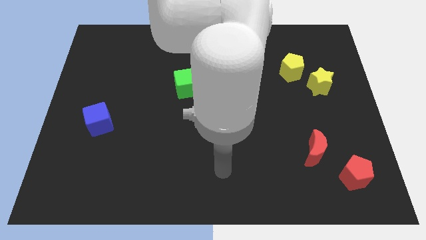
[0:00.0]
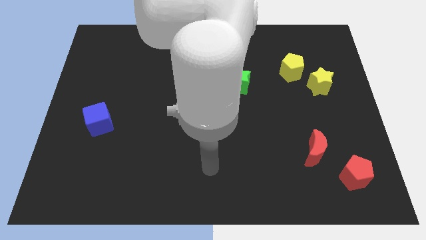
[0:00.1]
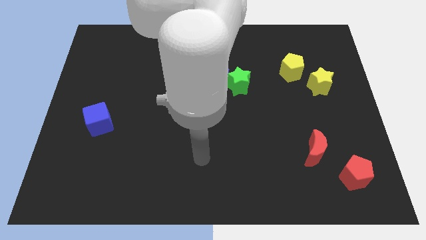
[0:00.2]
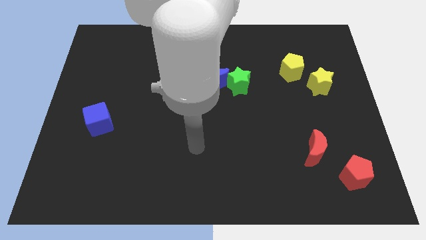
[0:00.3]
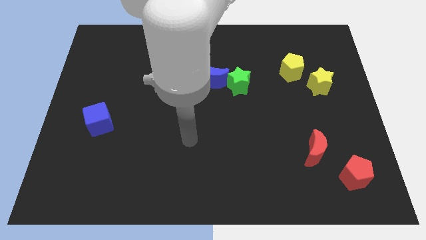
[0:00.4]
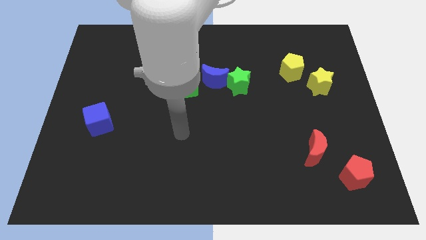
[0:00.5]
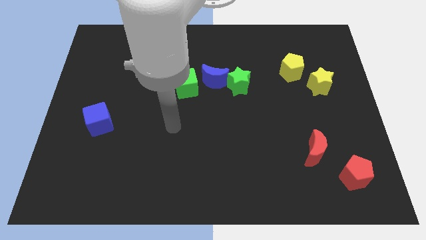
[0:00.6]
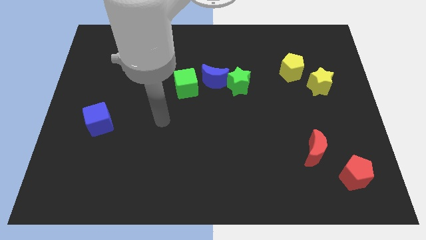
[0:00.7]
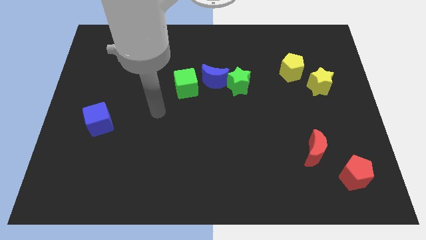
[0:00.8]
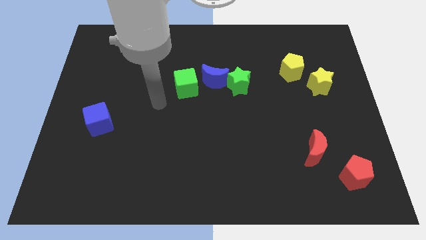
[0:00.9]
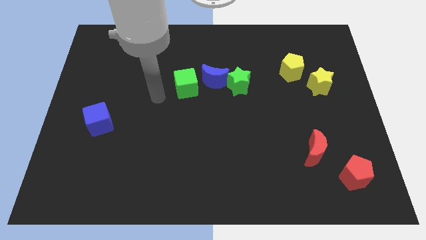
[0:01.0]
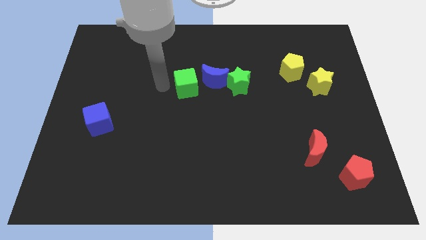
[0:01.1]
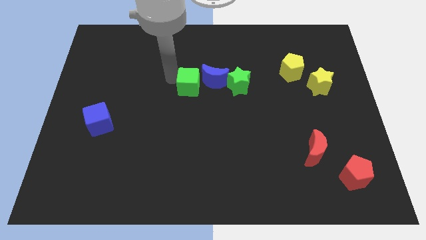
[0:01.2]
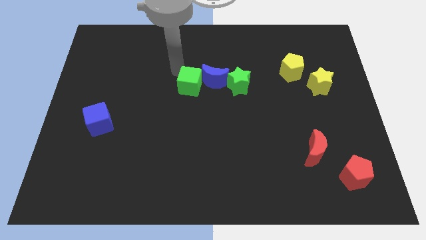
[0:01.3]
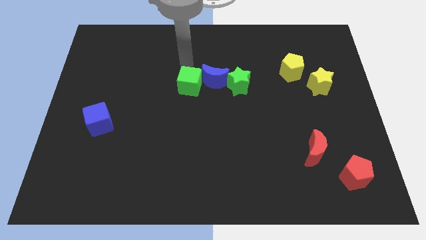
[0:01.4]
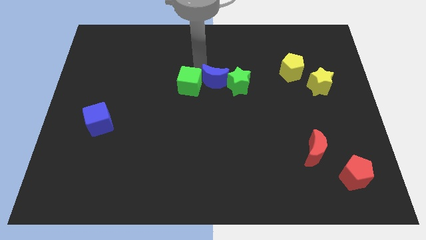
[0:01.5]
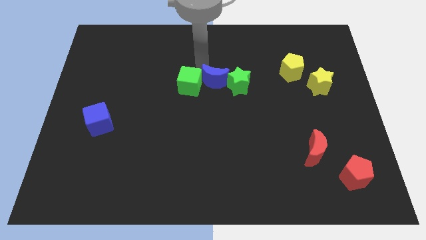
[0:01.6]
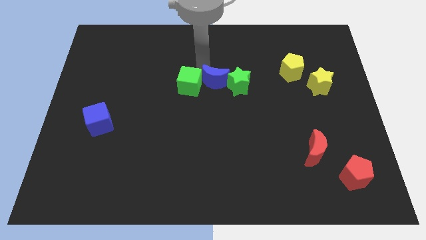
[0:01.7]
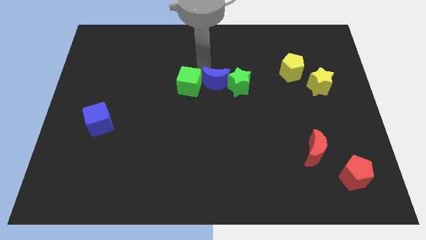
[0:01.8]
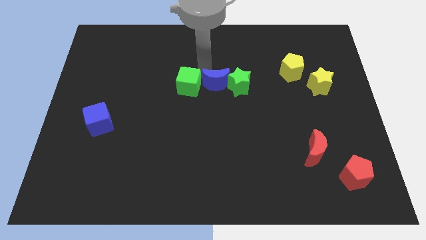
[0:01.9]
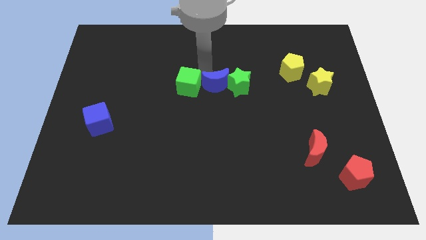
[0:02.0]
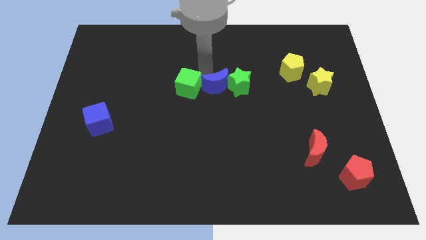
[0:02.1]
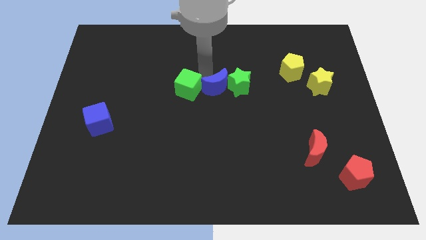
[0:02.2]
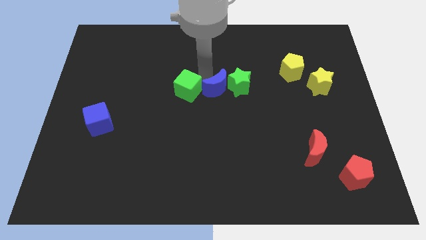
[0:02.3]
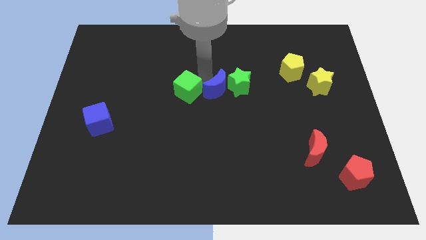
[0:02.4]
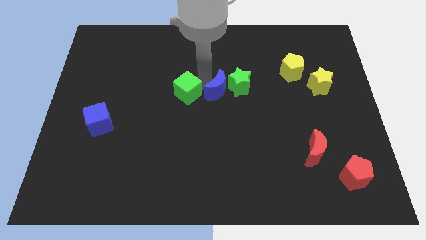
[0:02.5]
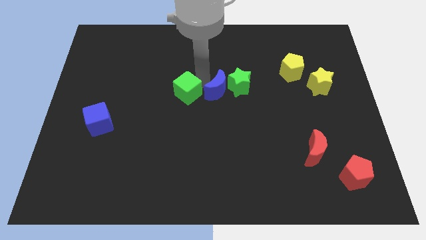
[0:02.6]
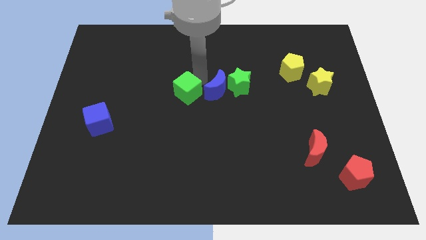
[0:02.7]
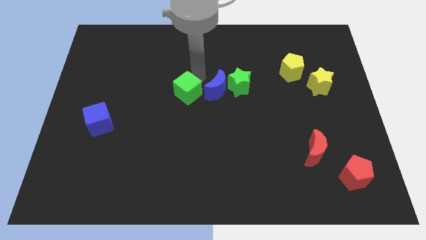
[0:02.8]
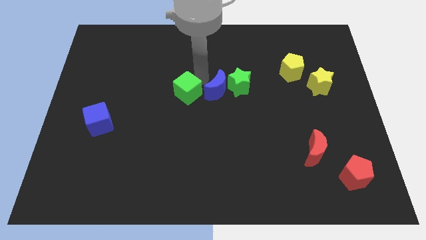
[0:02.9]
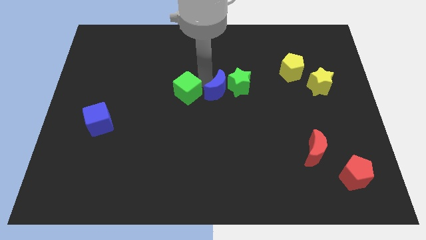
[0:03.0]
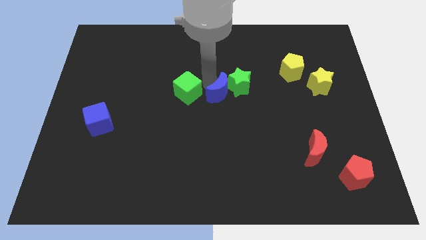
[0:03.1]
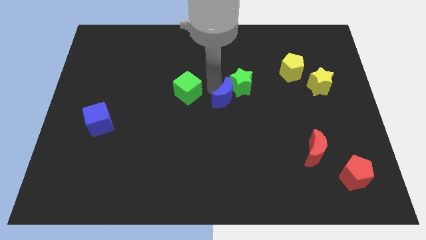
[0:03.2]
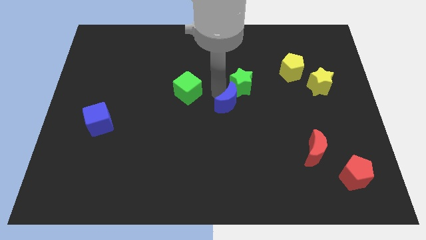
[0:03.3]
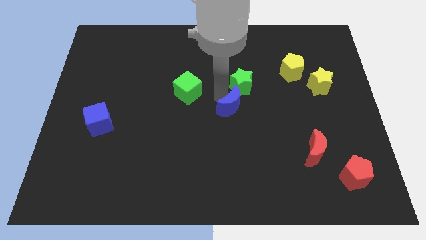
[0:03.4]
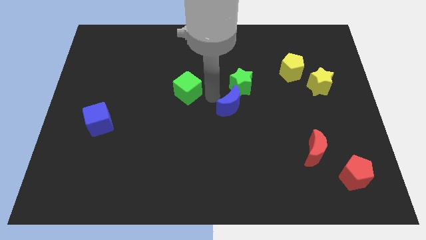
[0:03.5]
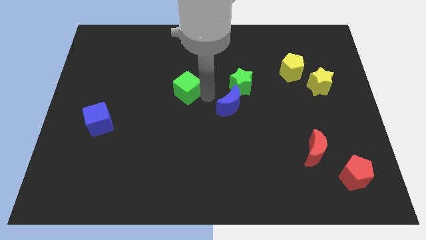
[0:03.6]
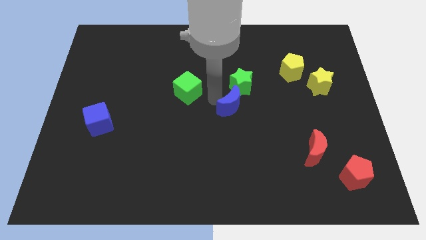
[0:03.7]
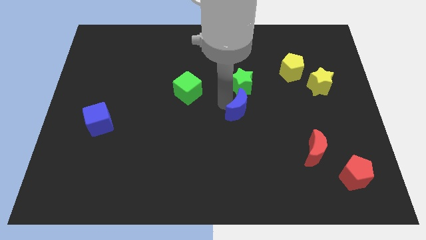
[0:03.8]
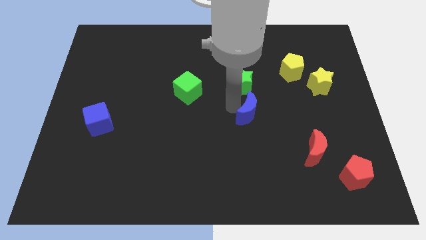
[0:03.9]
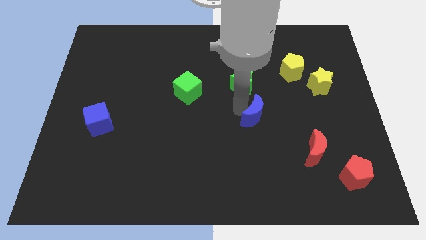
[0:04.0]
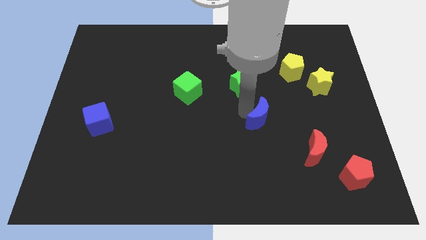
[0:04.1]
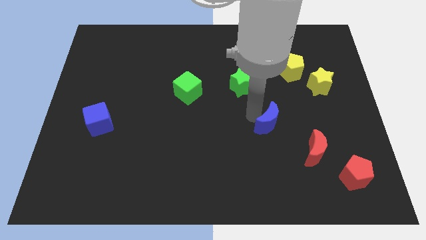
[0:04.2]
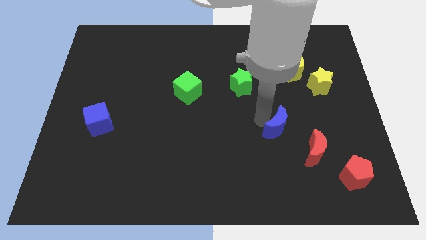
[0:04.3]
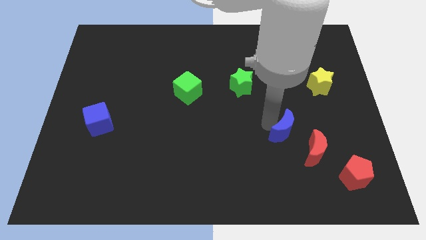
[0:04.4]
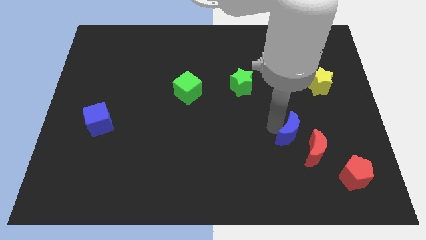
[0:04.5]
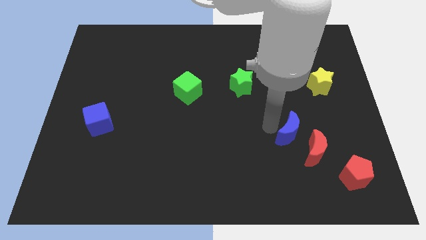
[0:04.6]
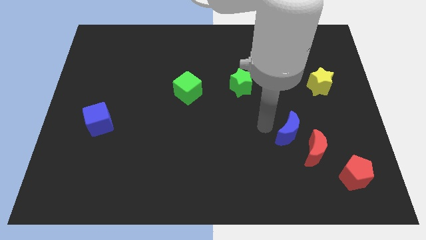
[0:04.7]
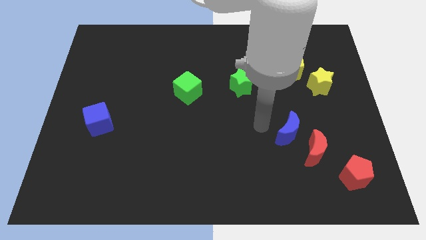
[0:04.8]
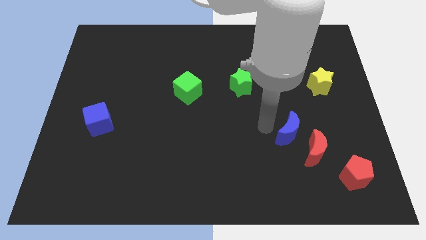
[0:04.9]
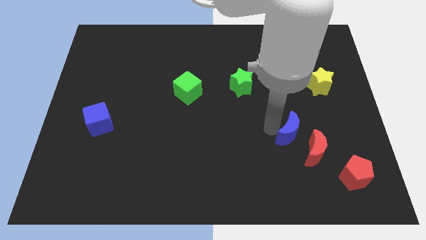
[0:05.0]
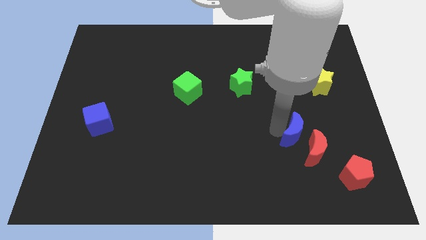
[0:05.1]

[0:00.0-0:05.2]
push the blue moon next to the red moon

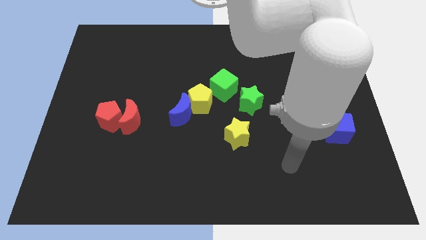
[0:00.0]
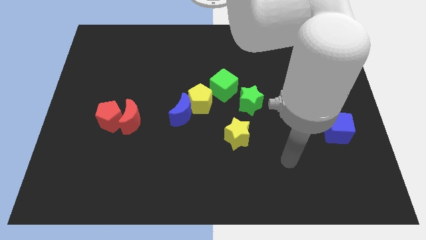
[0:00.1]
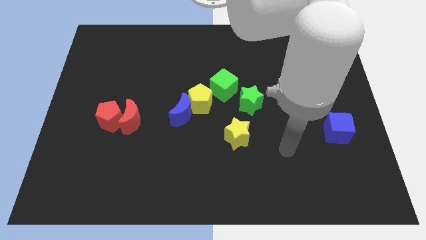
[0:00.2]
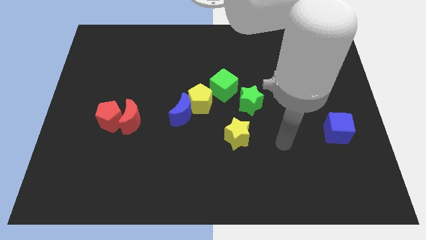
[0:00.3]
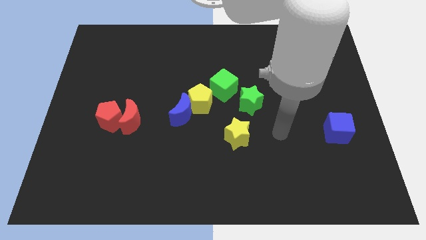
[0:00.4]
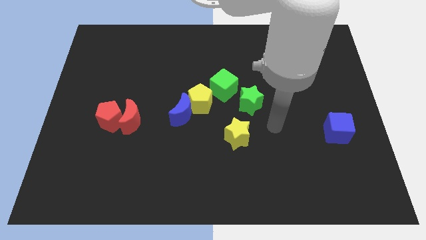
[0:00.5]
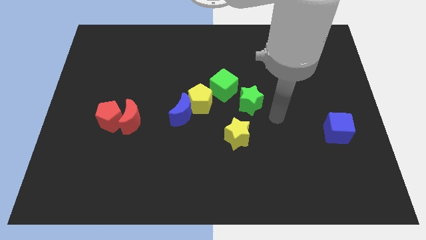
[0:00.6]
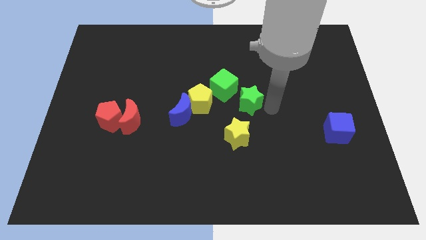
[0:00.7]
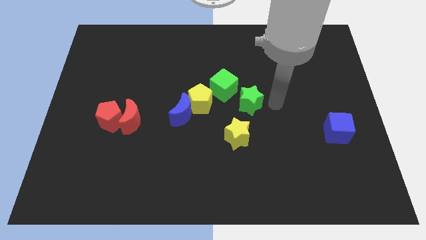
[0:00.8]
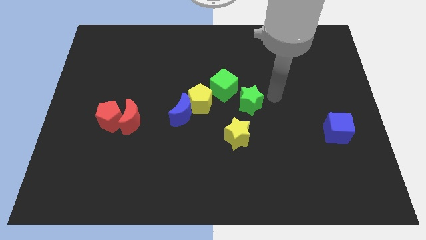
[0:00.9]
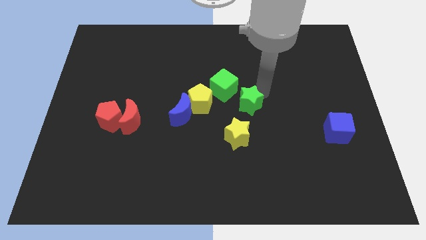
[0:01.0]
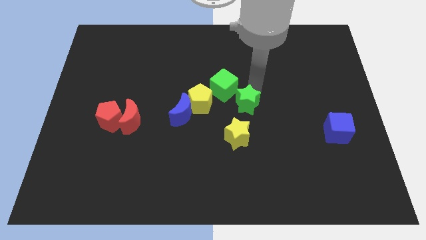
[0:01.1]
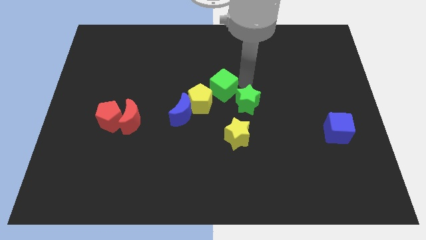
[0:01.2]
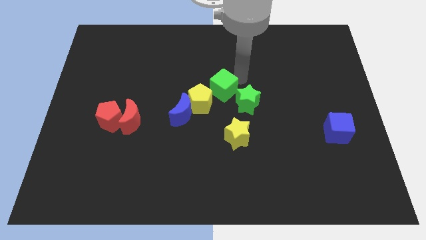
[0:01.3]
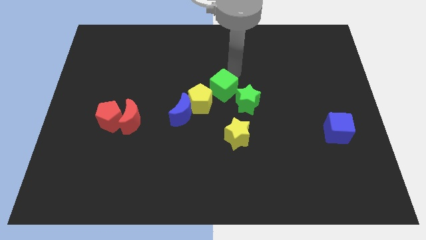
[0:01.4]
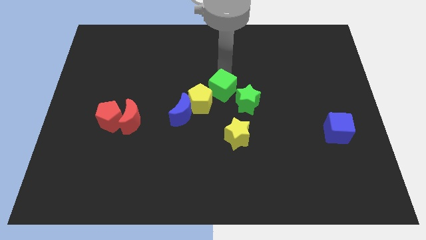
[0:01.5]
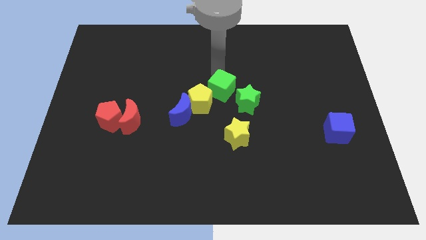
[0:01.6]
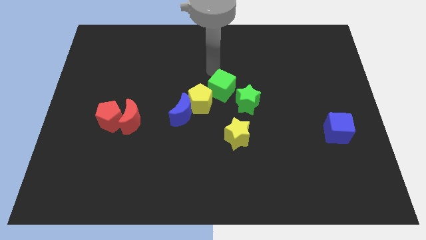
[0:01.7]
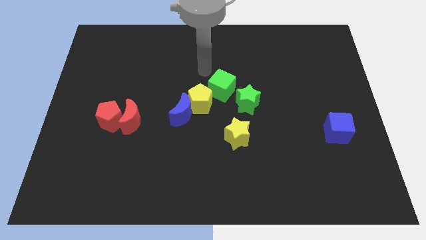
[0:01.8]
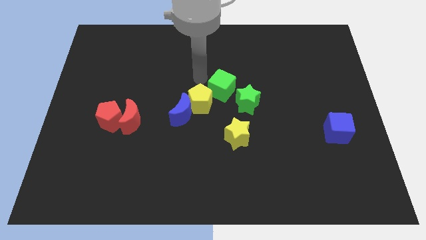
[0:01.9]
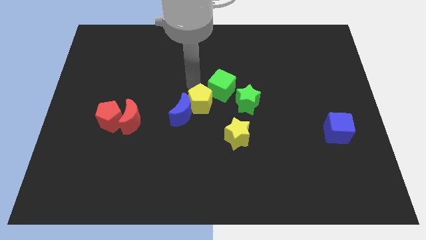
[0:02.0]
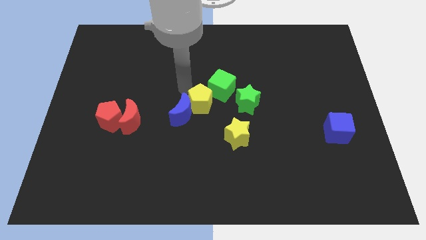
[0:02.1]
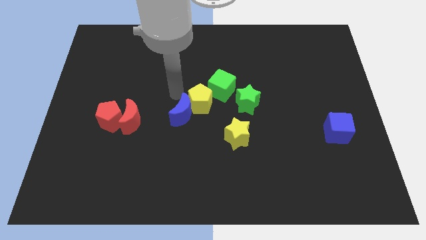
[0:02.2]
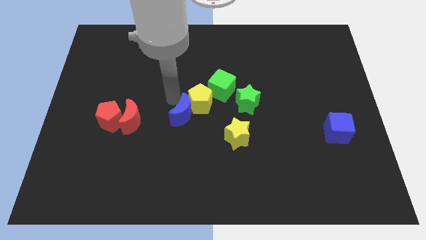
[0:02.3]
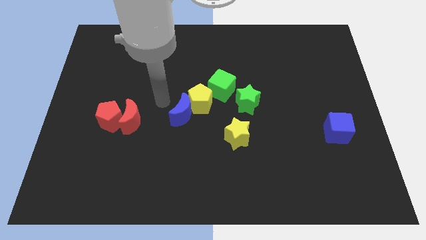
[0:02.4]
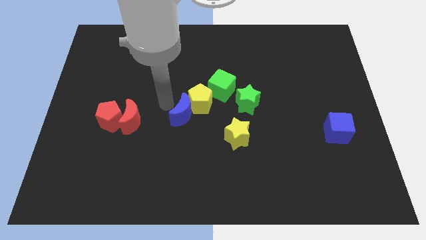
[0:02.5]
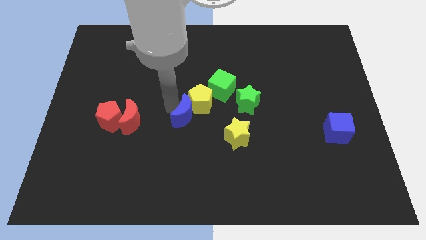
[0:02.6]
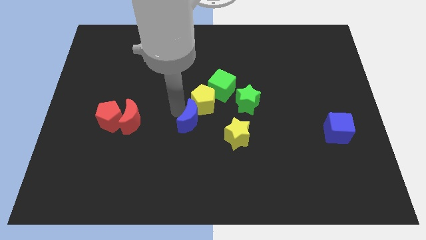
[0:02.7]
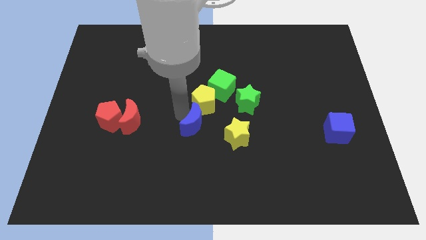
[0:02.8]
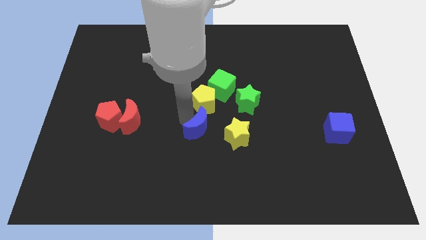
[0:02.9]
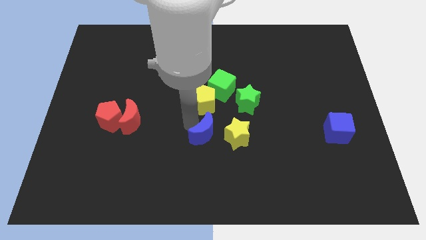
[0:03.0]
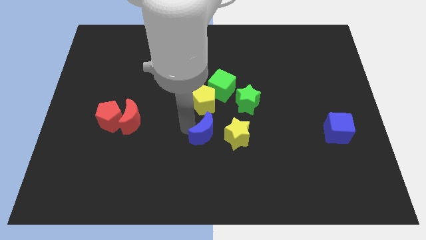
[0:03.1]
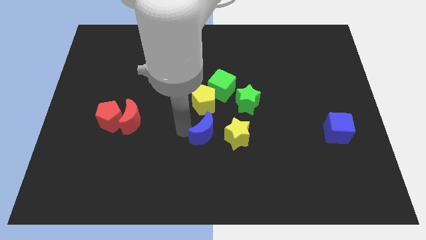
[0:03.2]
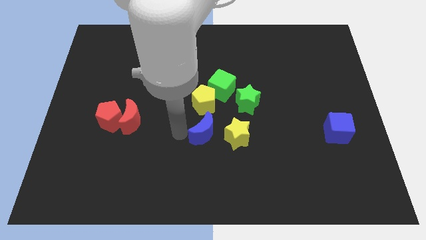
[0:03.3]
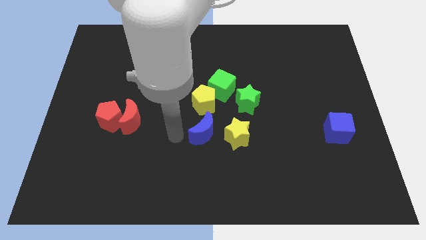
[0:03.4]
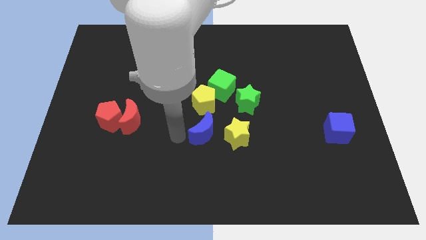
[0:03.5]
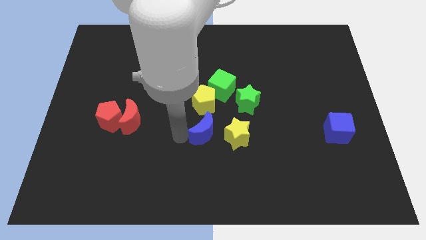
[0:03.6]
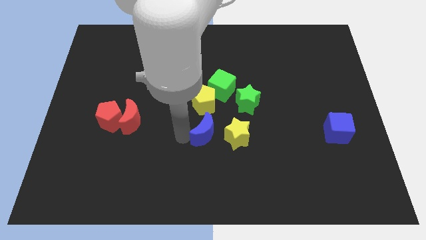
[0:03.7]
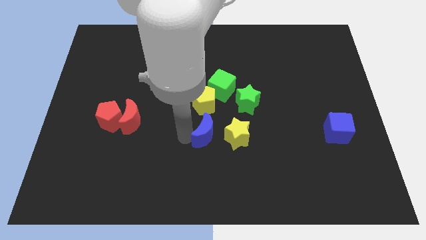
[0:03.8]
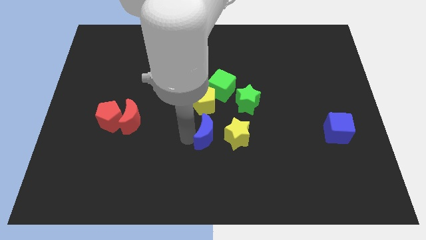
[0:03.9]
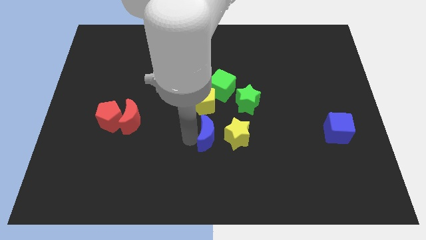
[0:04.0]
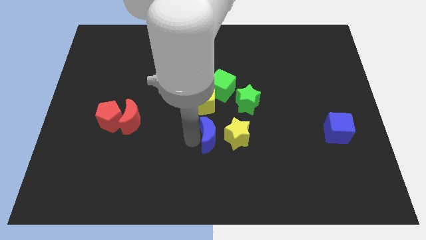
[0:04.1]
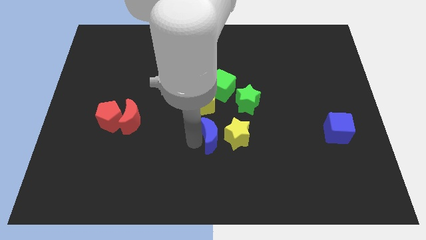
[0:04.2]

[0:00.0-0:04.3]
put the blue moon to the yellow star
